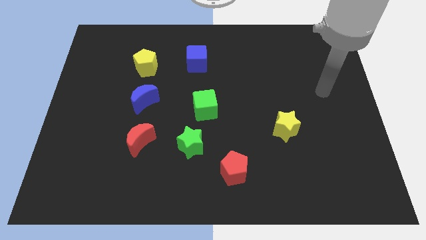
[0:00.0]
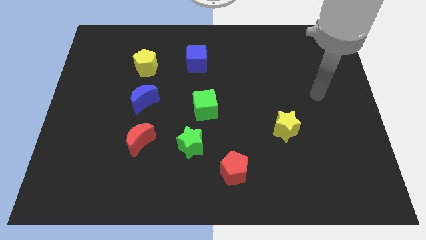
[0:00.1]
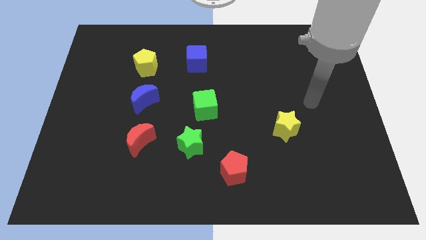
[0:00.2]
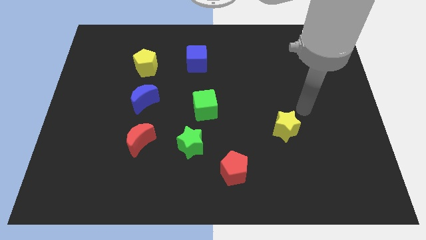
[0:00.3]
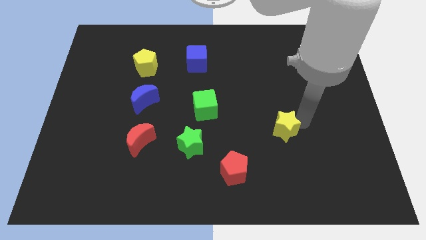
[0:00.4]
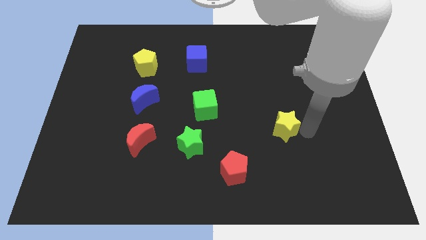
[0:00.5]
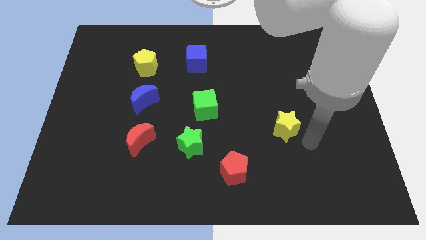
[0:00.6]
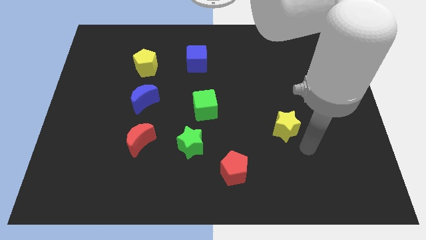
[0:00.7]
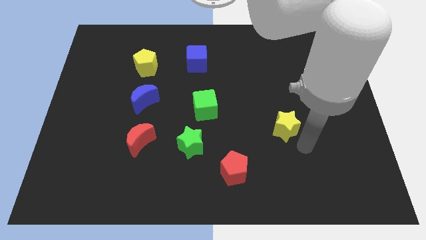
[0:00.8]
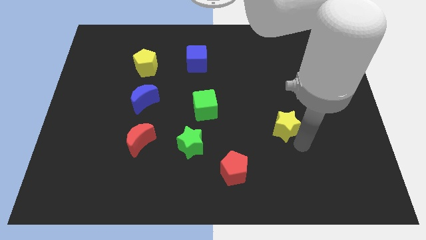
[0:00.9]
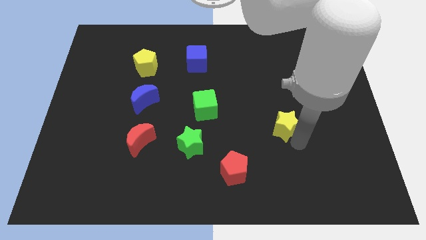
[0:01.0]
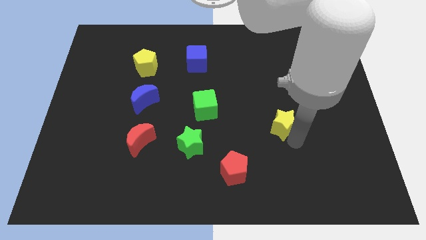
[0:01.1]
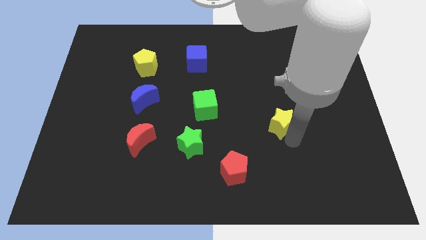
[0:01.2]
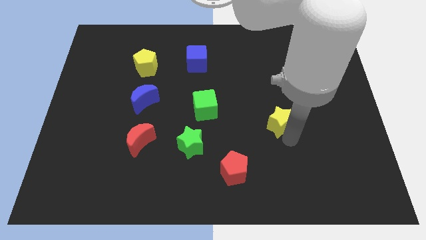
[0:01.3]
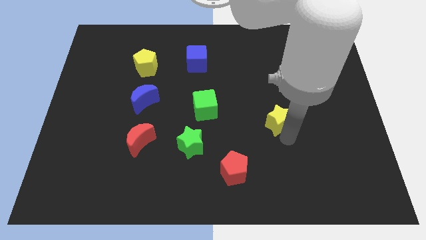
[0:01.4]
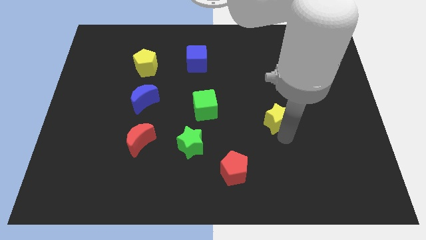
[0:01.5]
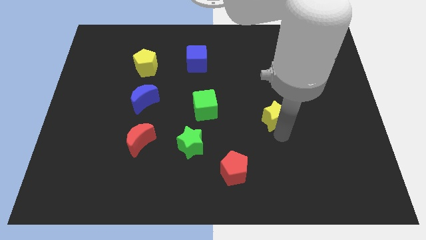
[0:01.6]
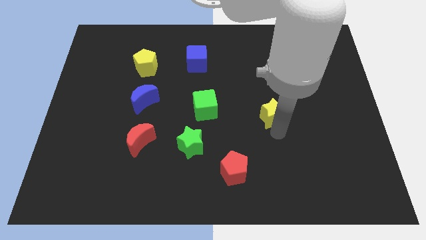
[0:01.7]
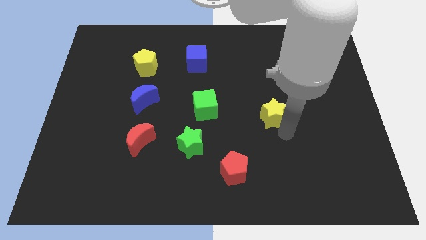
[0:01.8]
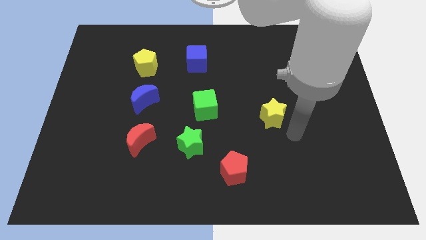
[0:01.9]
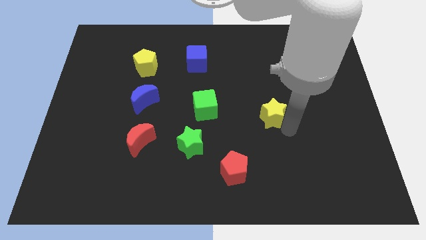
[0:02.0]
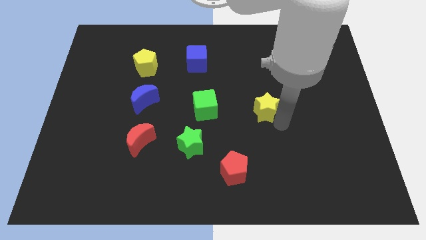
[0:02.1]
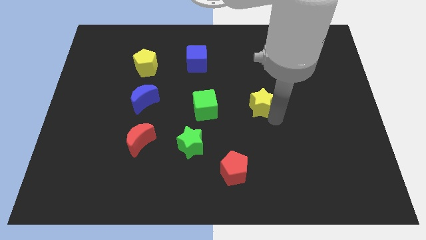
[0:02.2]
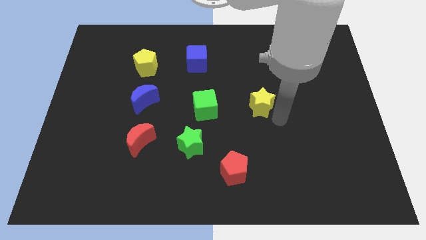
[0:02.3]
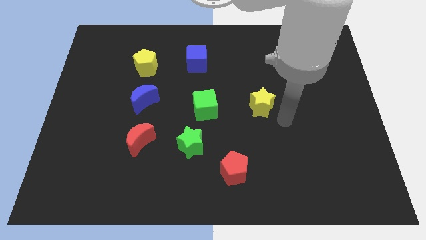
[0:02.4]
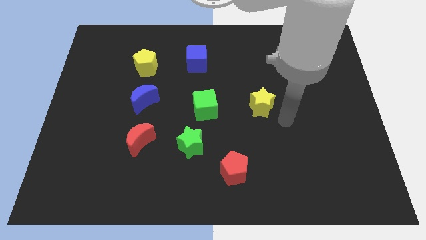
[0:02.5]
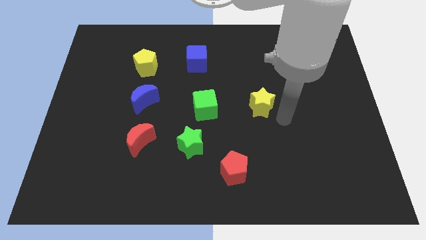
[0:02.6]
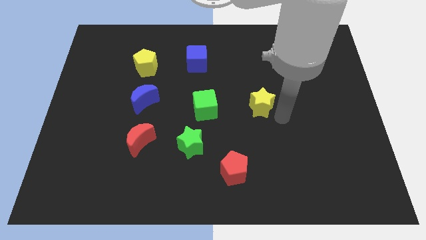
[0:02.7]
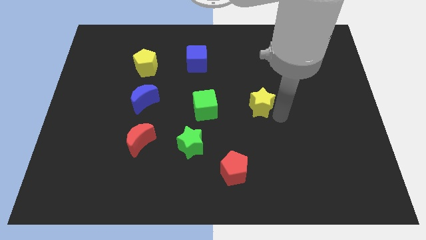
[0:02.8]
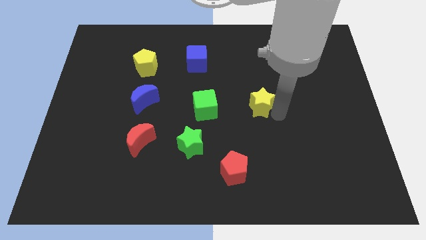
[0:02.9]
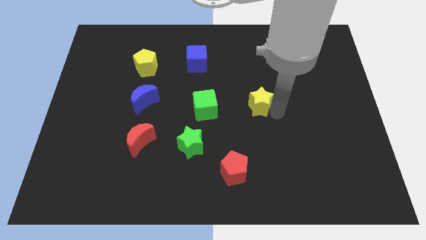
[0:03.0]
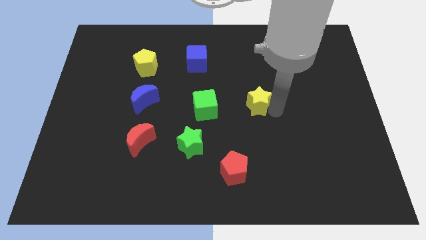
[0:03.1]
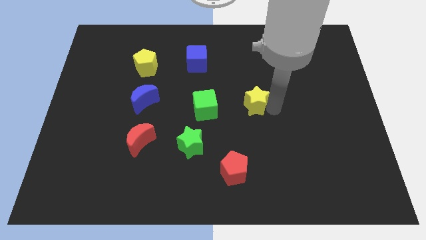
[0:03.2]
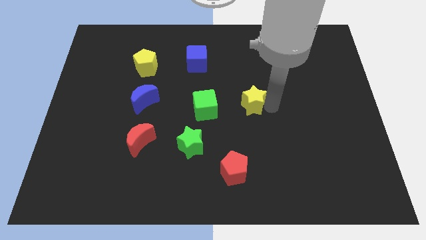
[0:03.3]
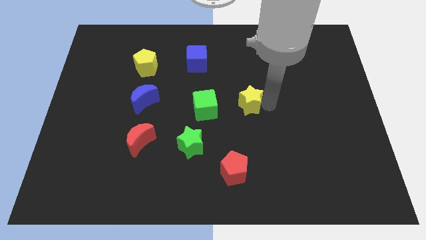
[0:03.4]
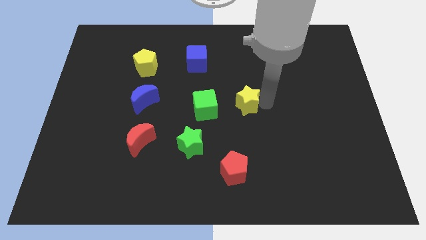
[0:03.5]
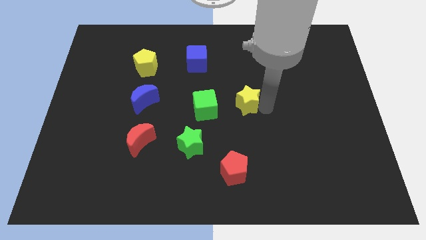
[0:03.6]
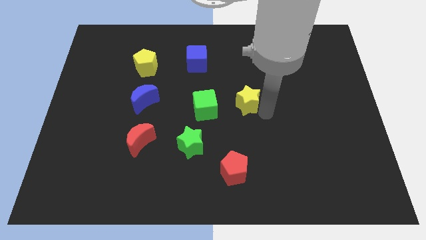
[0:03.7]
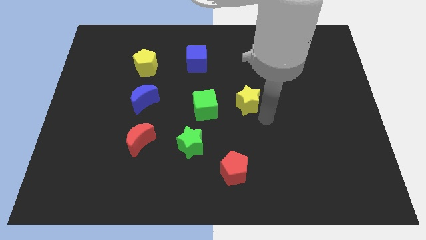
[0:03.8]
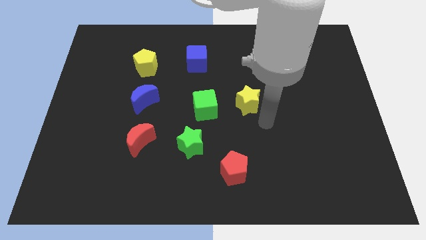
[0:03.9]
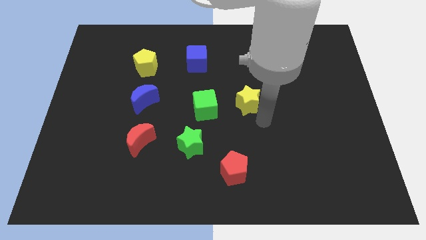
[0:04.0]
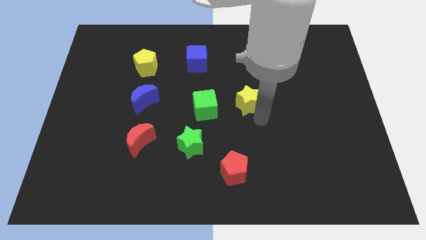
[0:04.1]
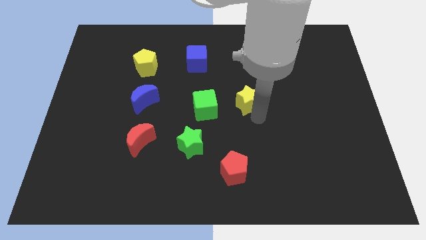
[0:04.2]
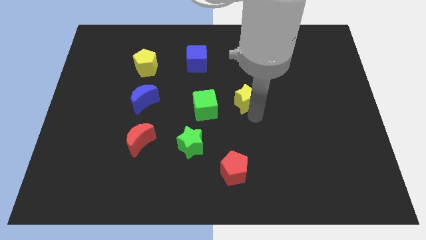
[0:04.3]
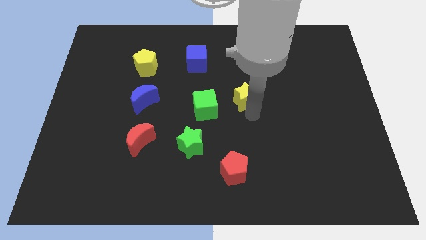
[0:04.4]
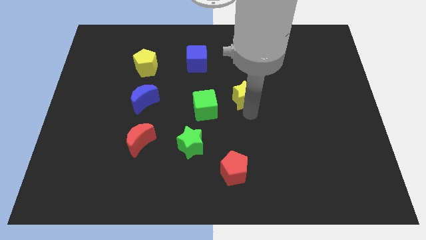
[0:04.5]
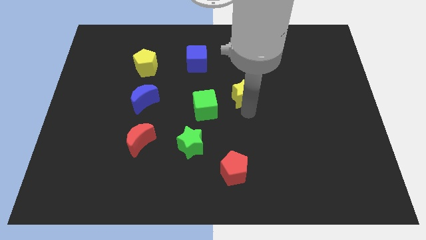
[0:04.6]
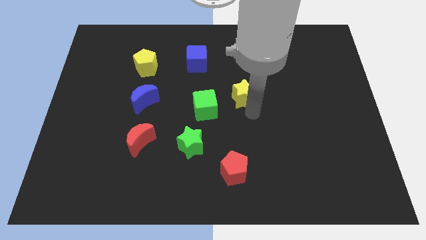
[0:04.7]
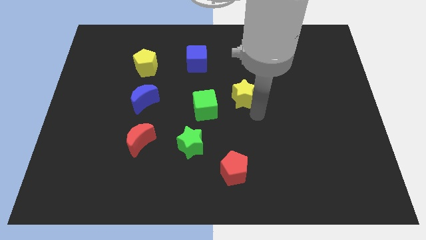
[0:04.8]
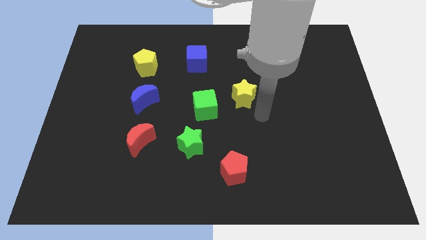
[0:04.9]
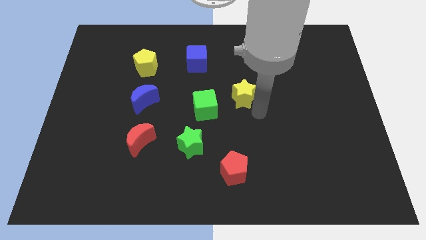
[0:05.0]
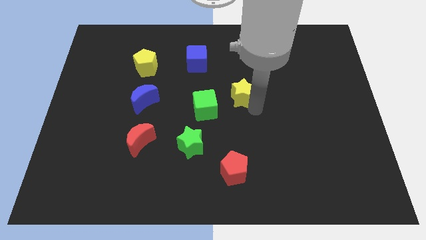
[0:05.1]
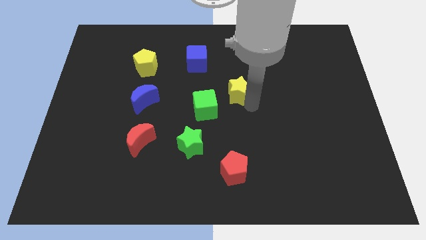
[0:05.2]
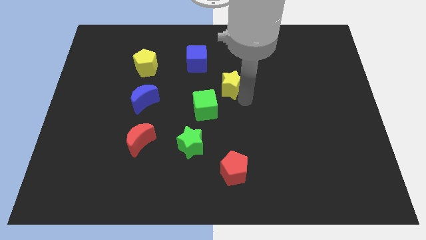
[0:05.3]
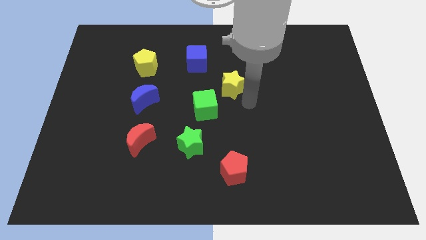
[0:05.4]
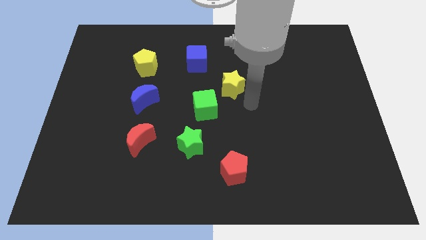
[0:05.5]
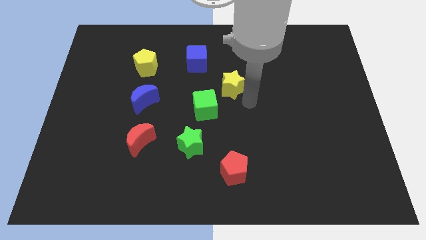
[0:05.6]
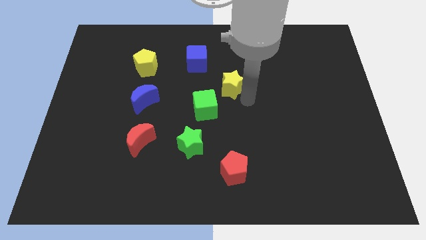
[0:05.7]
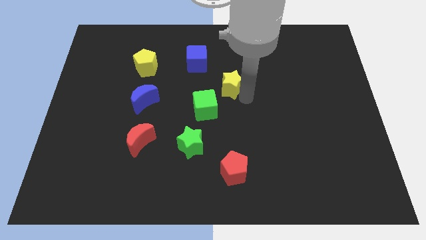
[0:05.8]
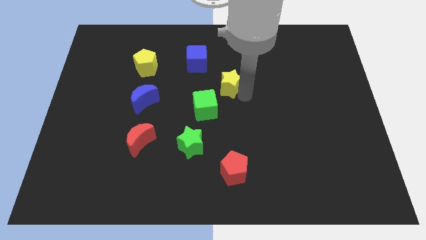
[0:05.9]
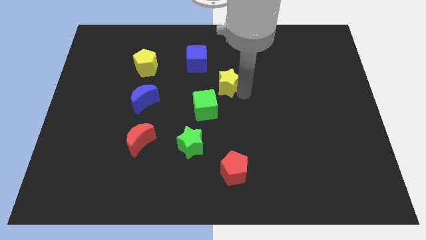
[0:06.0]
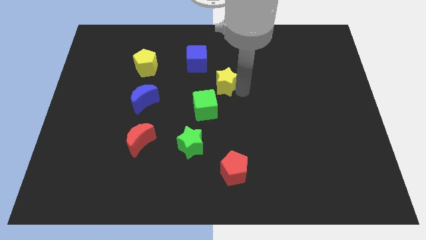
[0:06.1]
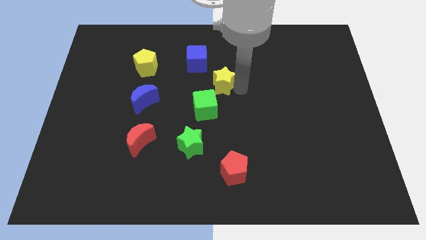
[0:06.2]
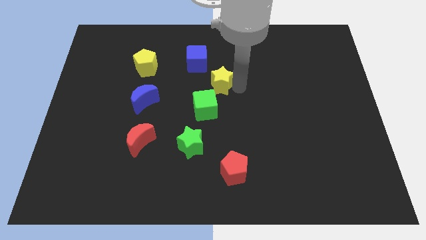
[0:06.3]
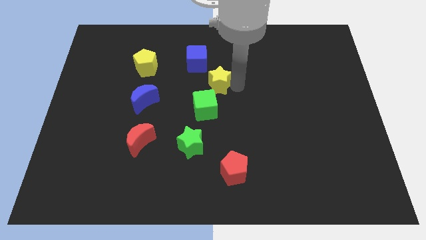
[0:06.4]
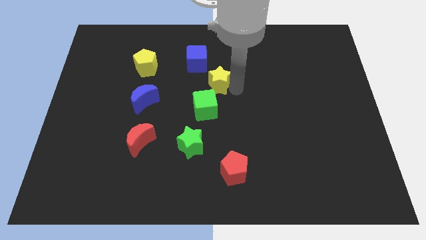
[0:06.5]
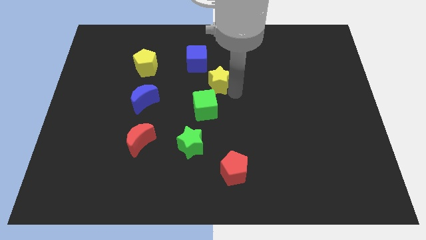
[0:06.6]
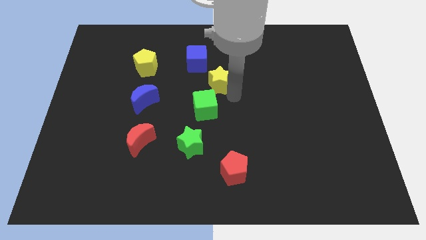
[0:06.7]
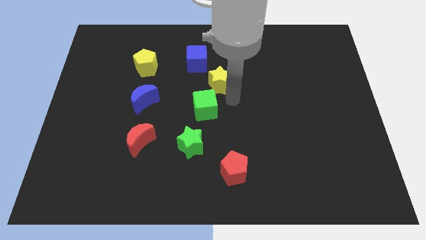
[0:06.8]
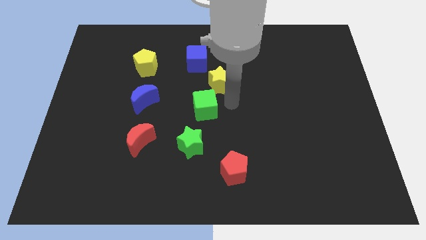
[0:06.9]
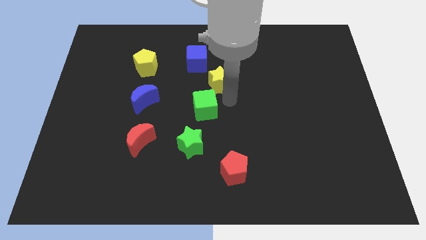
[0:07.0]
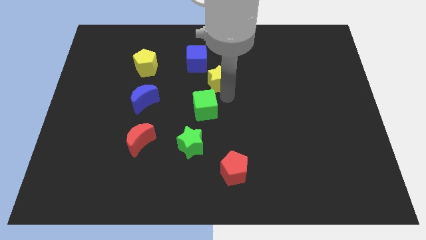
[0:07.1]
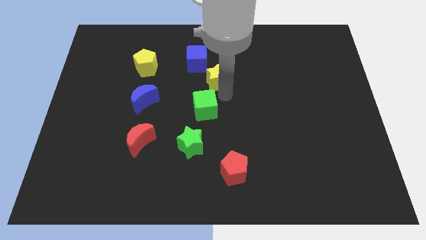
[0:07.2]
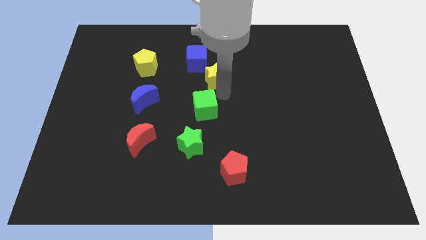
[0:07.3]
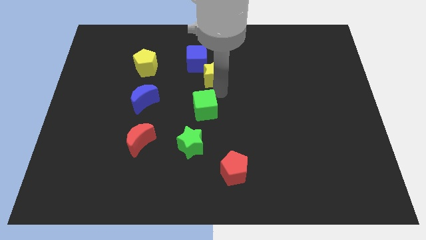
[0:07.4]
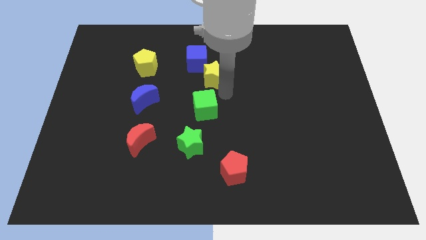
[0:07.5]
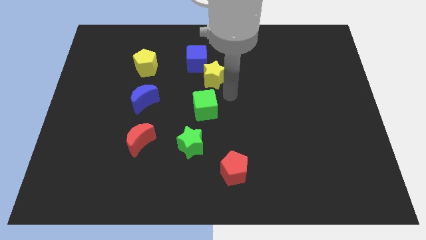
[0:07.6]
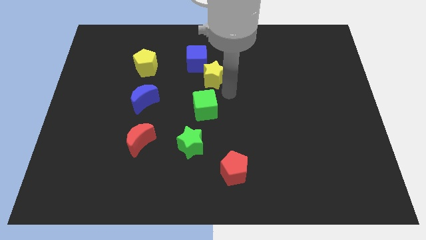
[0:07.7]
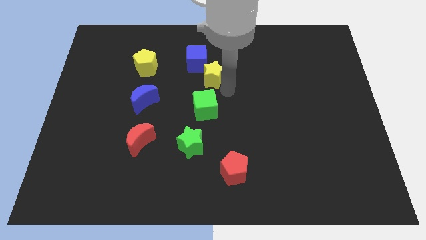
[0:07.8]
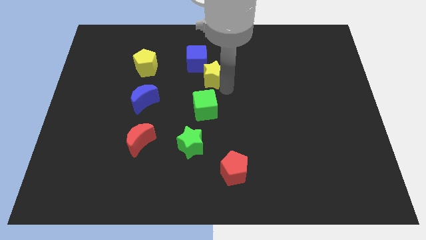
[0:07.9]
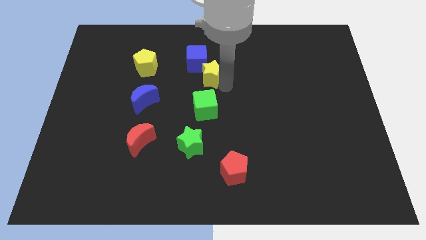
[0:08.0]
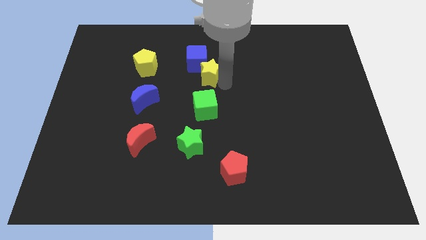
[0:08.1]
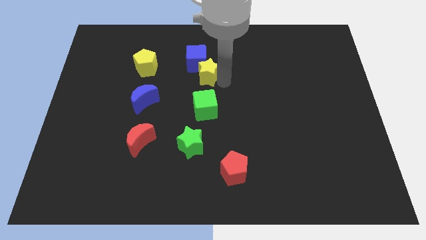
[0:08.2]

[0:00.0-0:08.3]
slide the yellow star close to the blue cube
